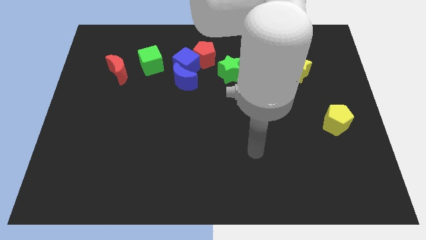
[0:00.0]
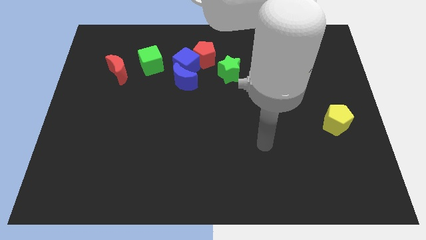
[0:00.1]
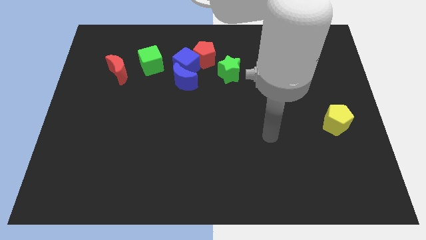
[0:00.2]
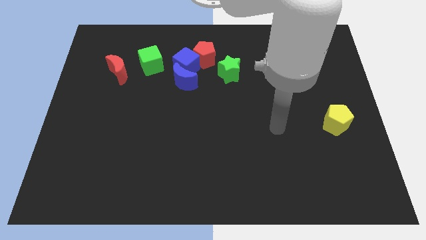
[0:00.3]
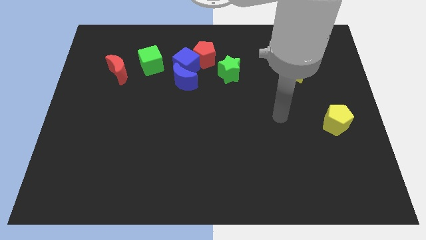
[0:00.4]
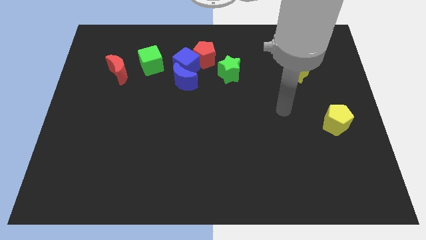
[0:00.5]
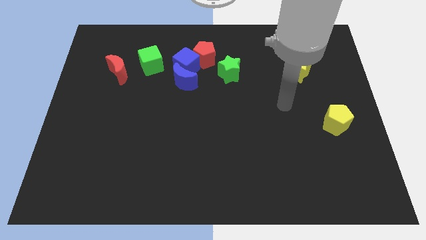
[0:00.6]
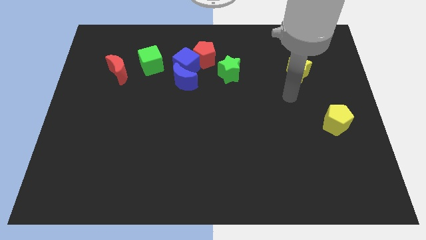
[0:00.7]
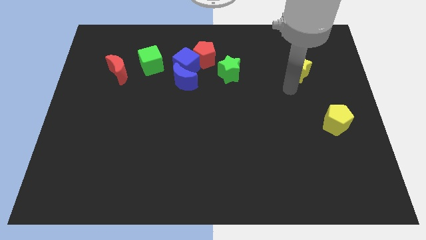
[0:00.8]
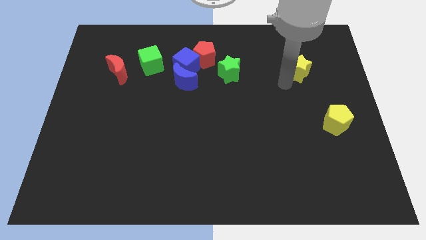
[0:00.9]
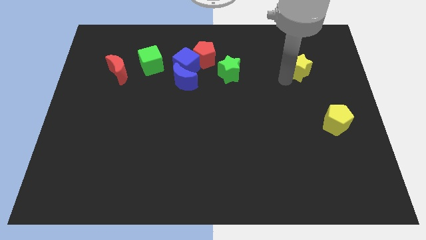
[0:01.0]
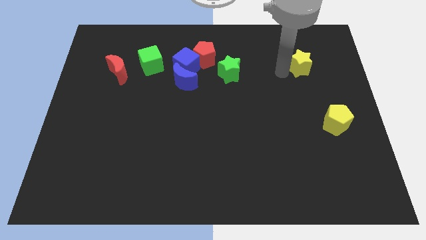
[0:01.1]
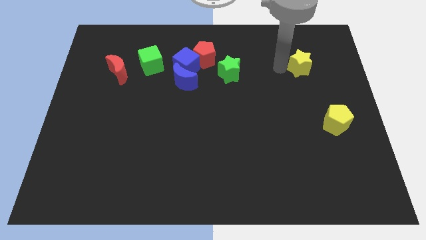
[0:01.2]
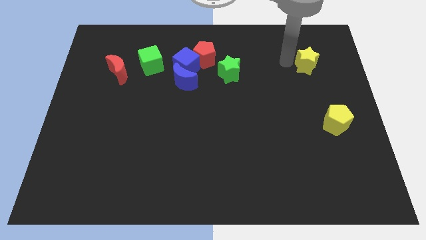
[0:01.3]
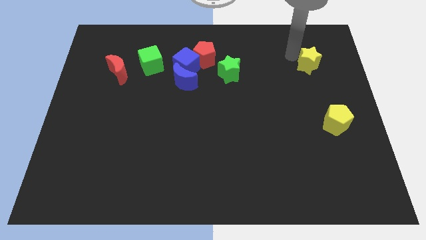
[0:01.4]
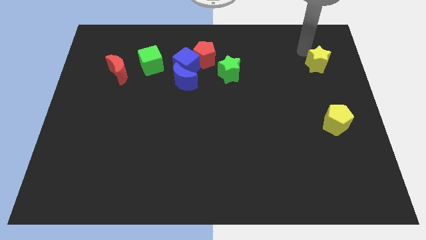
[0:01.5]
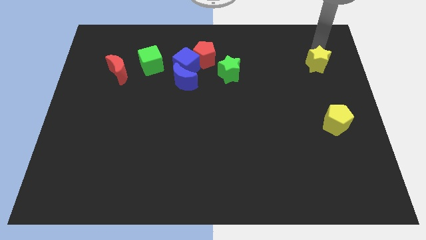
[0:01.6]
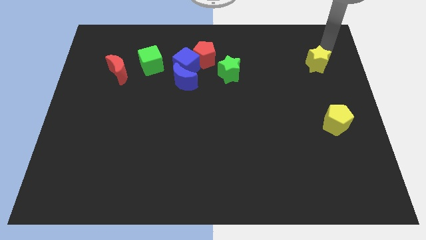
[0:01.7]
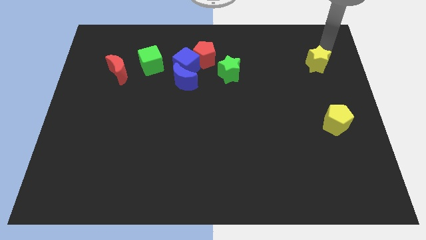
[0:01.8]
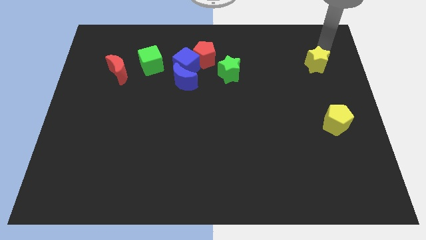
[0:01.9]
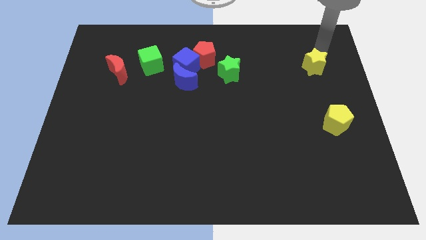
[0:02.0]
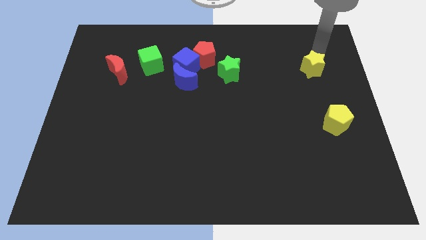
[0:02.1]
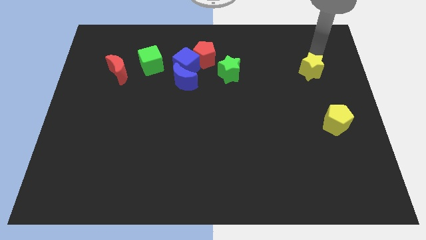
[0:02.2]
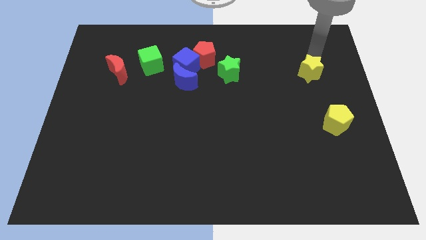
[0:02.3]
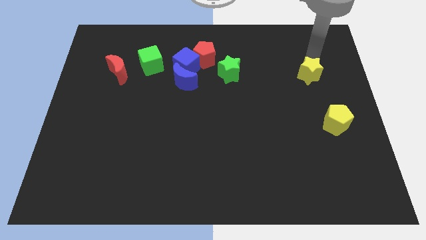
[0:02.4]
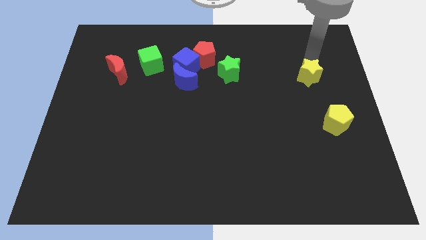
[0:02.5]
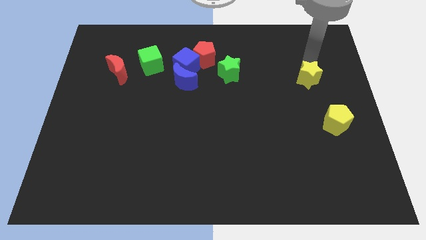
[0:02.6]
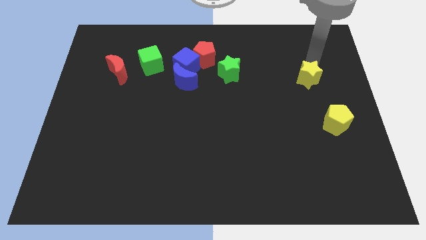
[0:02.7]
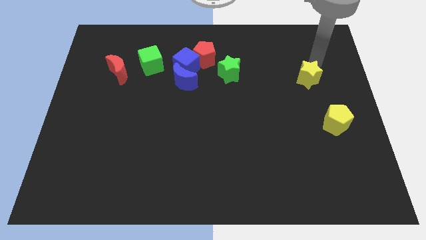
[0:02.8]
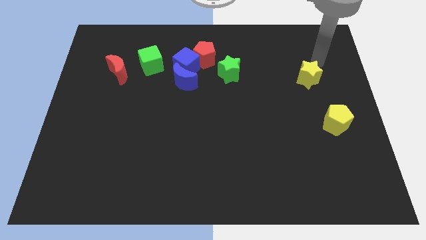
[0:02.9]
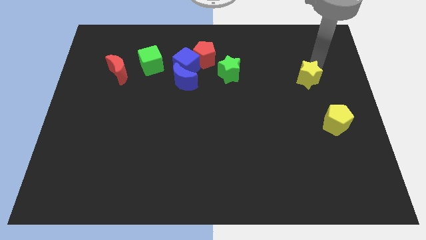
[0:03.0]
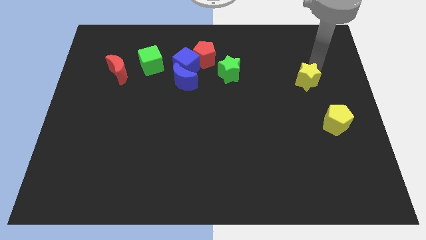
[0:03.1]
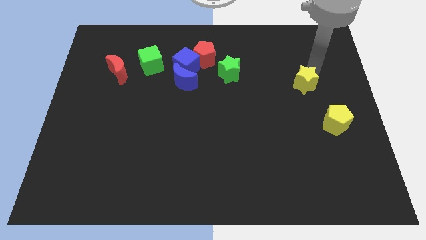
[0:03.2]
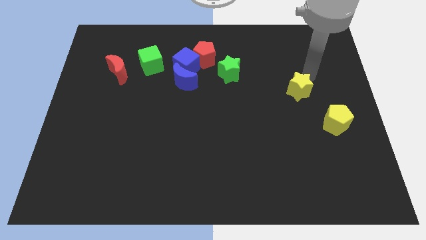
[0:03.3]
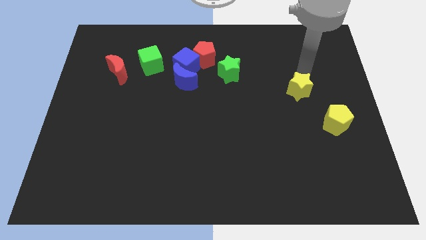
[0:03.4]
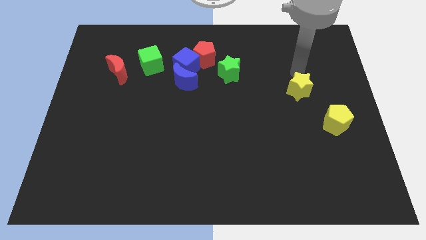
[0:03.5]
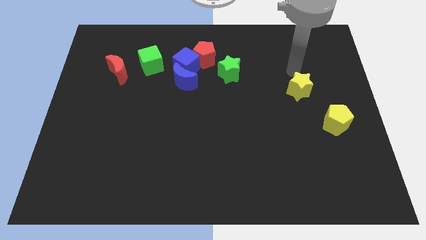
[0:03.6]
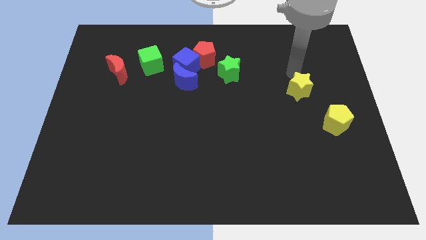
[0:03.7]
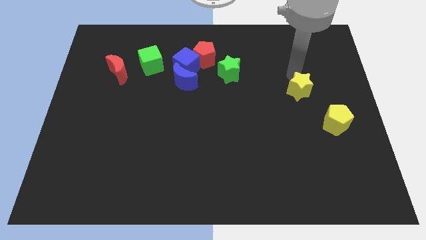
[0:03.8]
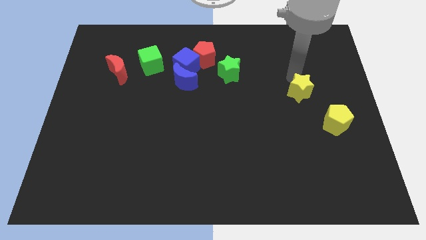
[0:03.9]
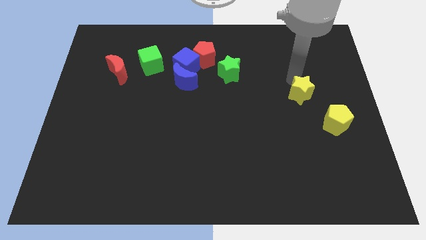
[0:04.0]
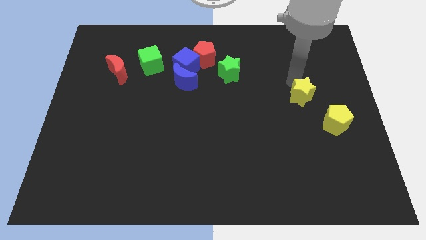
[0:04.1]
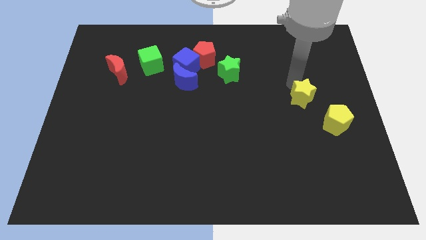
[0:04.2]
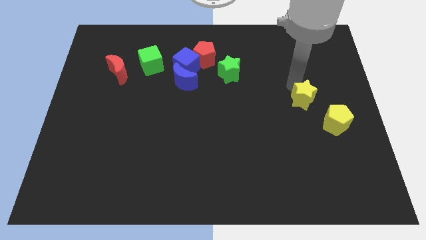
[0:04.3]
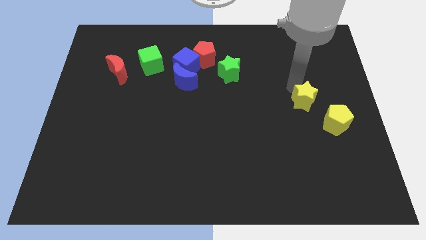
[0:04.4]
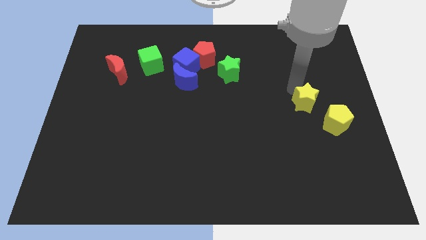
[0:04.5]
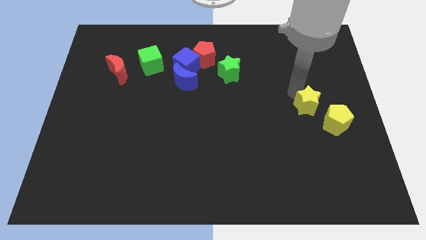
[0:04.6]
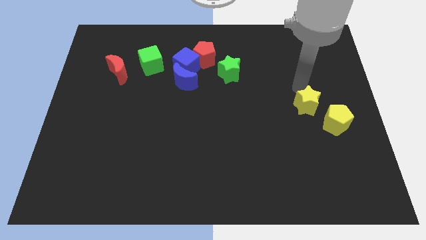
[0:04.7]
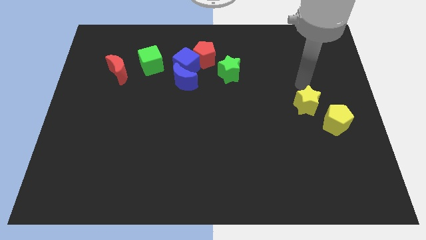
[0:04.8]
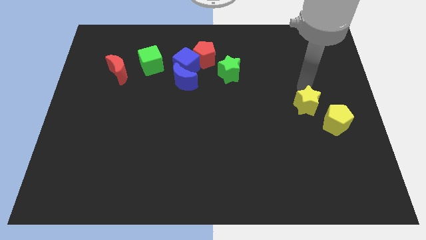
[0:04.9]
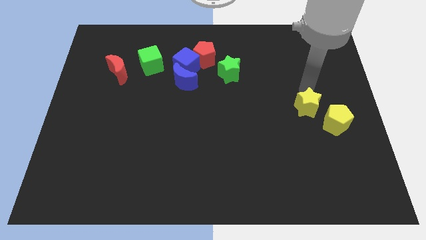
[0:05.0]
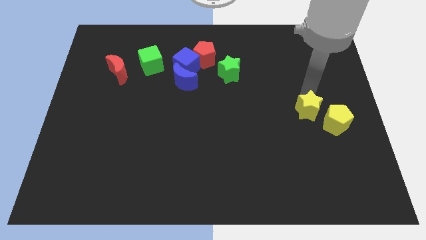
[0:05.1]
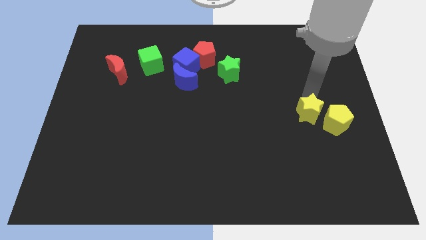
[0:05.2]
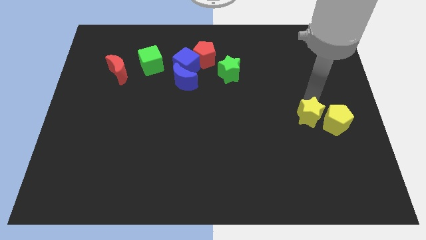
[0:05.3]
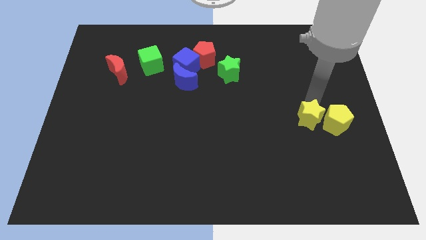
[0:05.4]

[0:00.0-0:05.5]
push the yellow star diagonally down and to the left of the yellow pentagon
